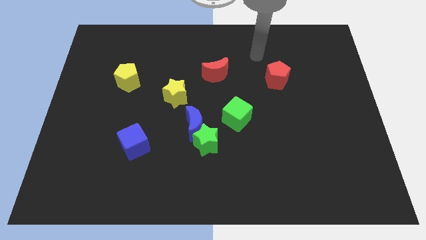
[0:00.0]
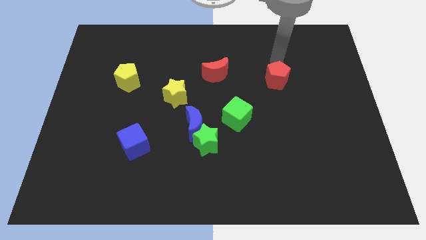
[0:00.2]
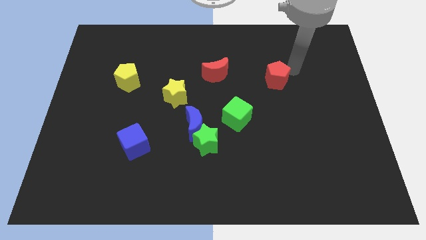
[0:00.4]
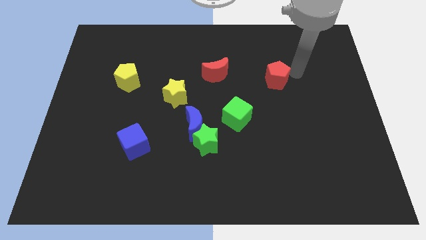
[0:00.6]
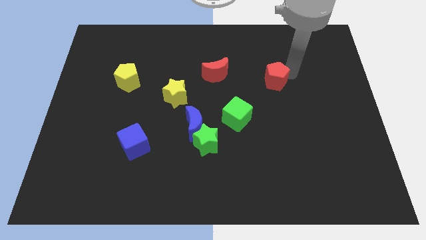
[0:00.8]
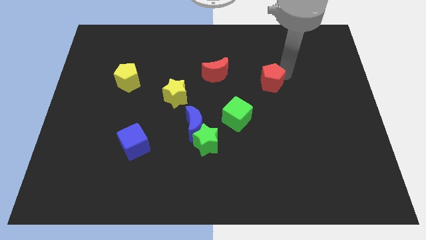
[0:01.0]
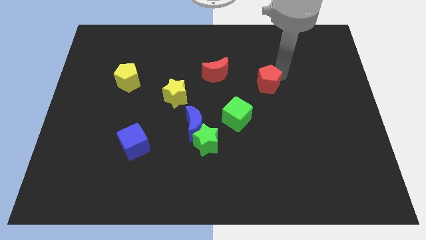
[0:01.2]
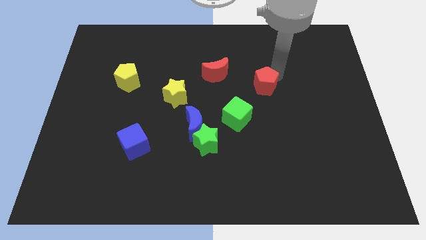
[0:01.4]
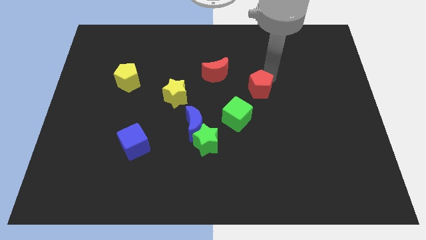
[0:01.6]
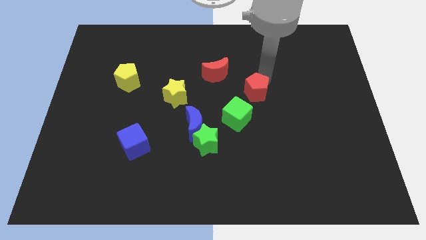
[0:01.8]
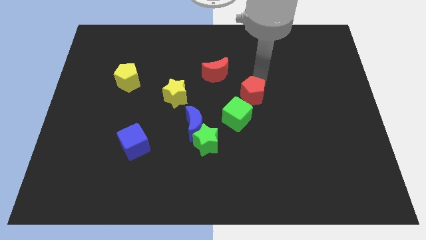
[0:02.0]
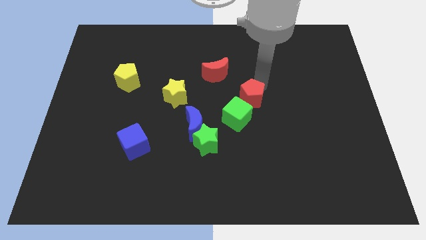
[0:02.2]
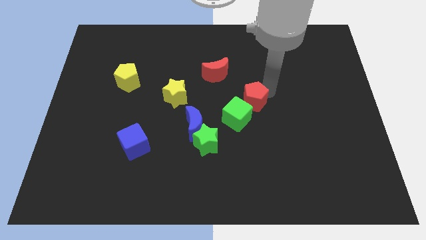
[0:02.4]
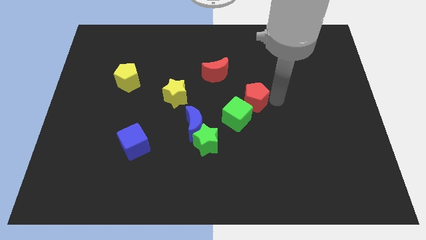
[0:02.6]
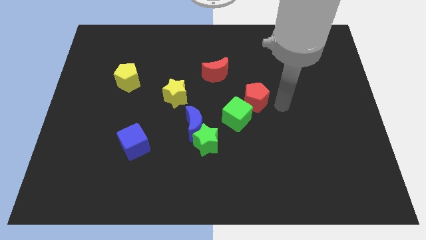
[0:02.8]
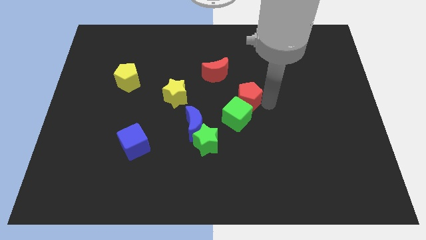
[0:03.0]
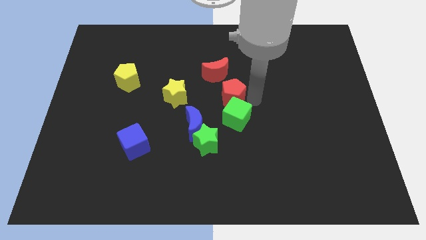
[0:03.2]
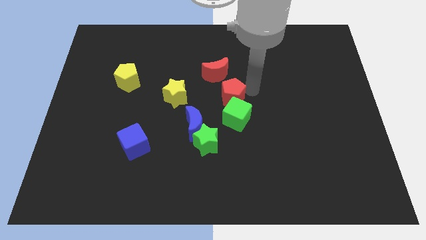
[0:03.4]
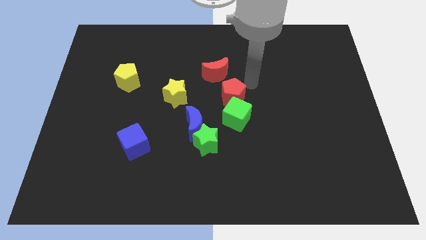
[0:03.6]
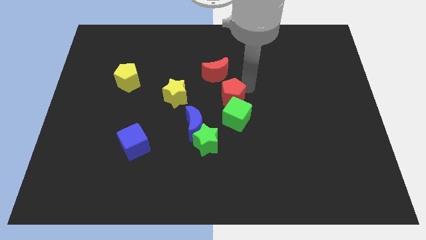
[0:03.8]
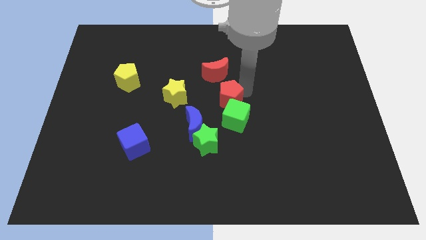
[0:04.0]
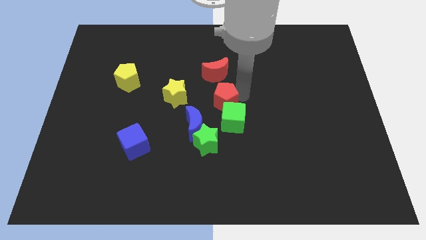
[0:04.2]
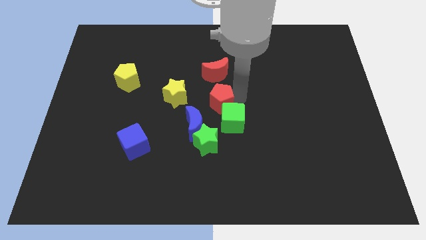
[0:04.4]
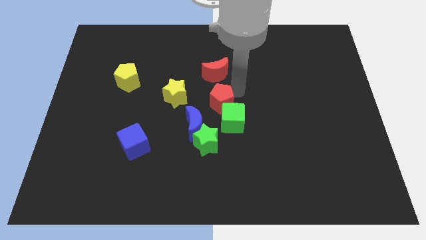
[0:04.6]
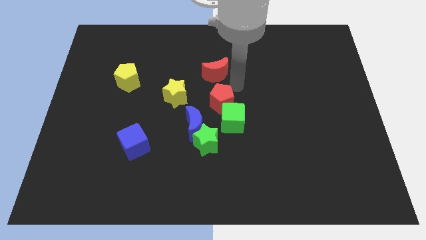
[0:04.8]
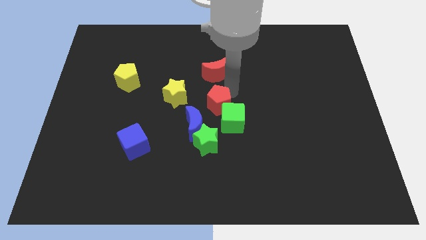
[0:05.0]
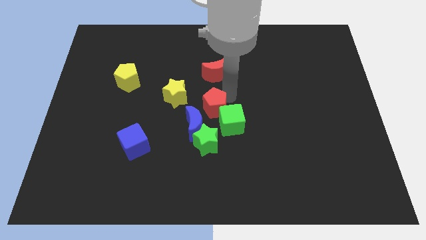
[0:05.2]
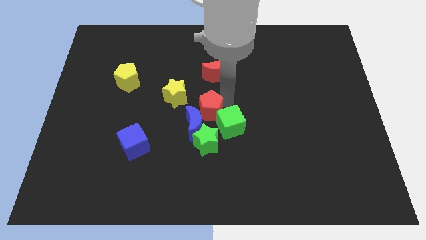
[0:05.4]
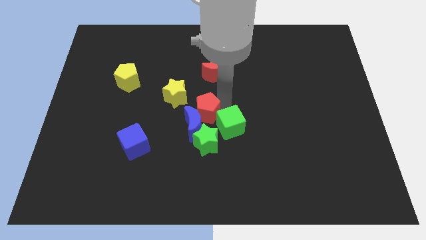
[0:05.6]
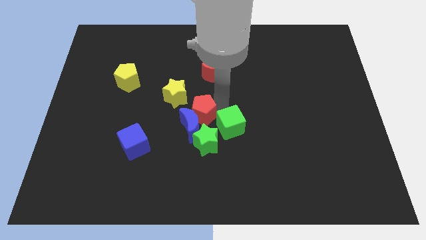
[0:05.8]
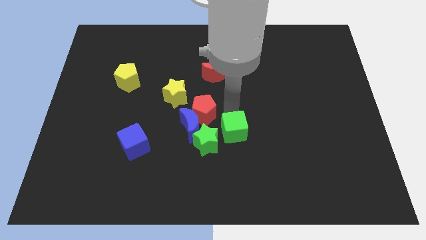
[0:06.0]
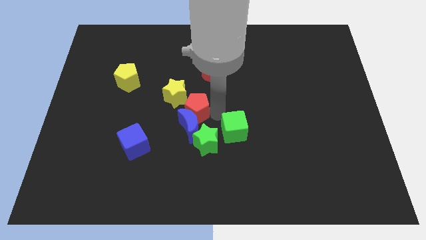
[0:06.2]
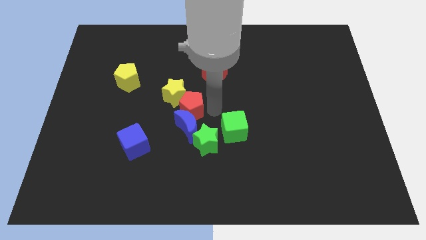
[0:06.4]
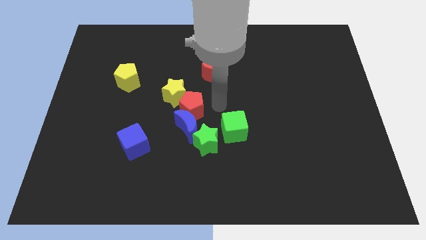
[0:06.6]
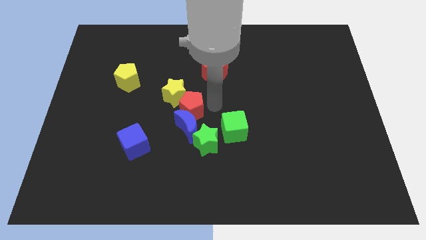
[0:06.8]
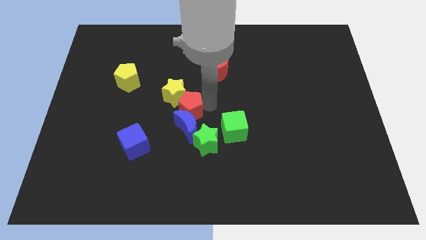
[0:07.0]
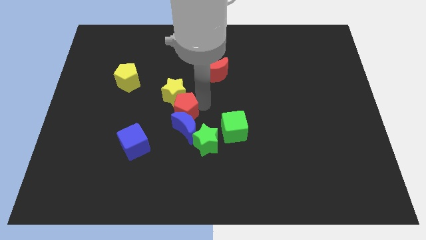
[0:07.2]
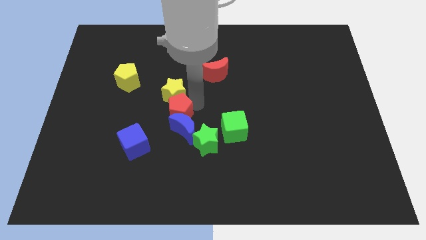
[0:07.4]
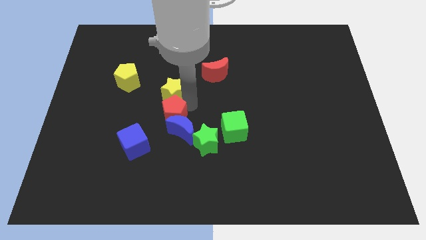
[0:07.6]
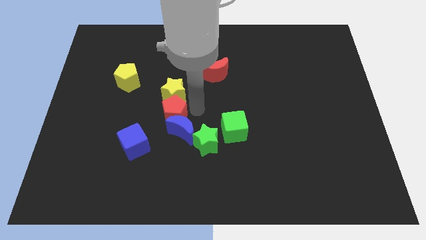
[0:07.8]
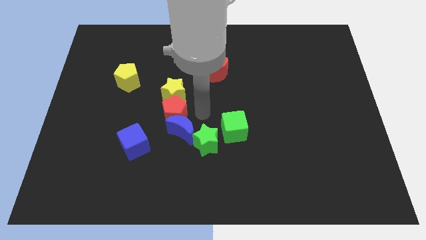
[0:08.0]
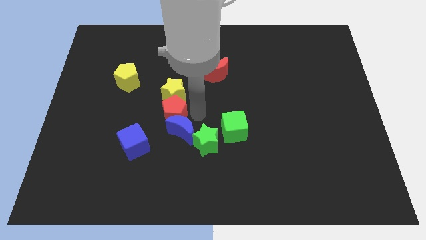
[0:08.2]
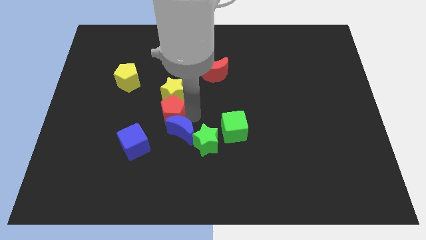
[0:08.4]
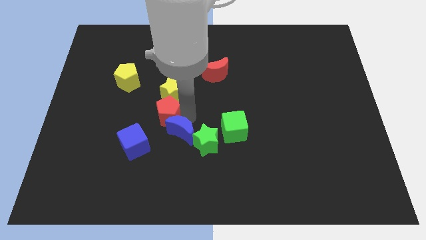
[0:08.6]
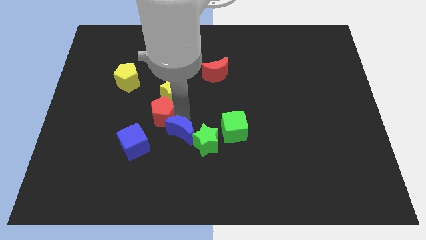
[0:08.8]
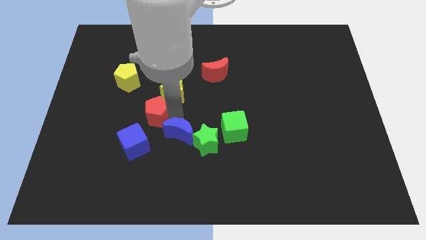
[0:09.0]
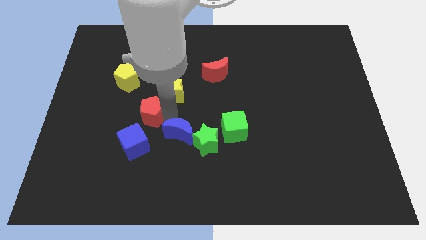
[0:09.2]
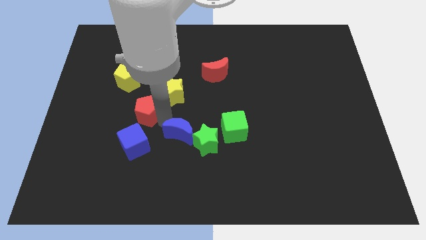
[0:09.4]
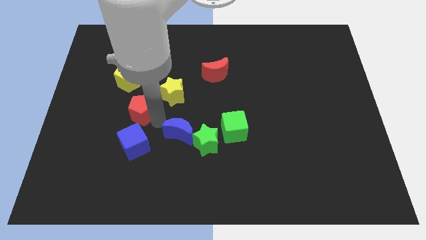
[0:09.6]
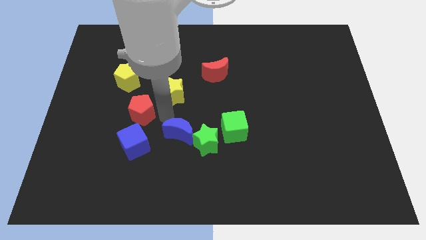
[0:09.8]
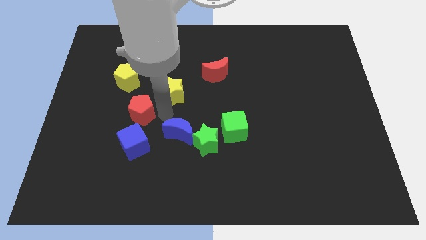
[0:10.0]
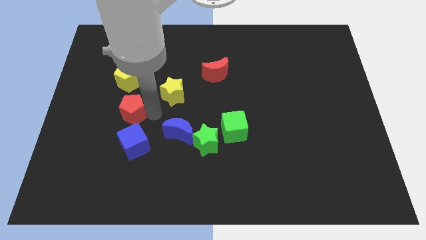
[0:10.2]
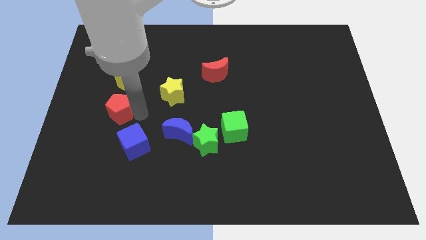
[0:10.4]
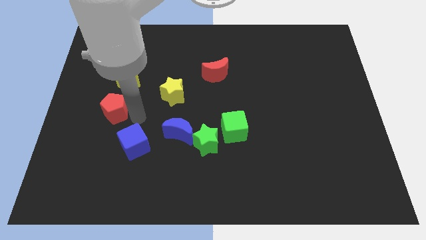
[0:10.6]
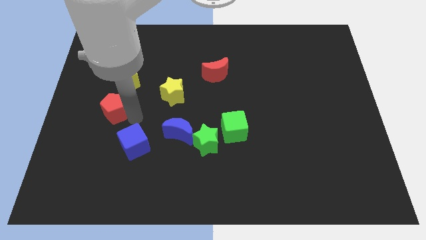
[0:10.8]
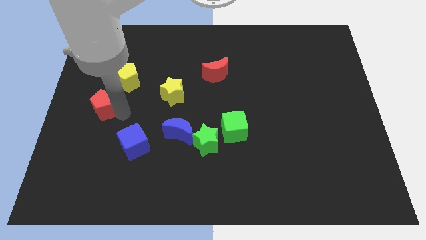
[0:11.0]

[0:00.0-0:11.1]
push the red pentagon to the center left

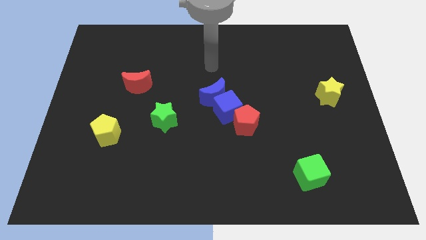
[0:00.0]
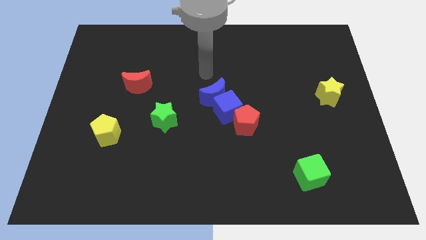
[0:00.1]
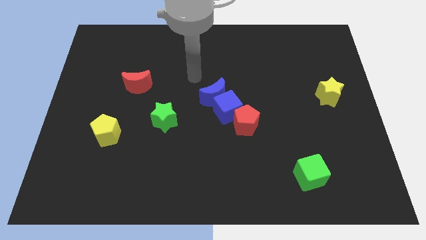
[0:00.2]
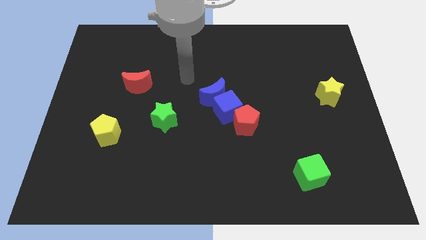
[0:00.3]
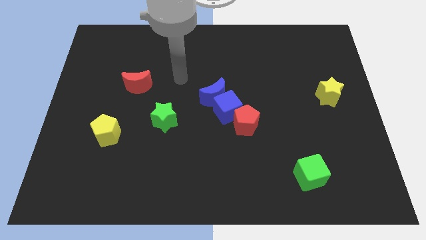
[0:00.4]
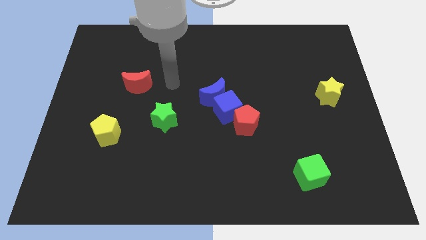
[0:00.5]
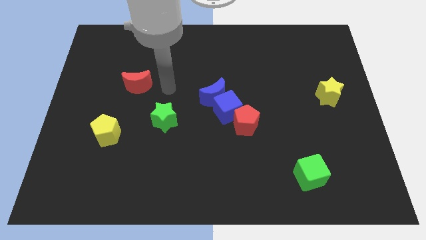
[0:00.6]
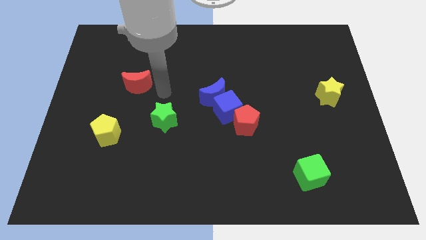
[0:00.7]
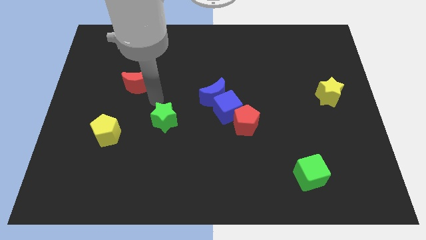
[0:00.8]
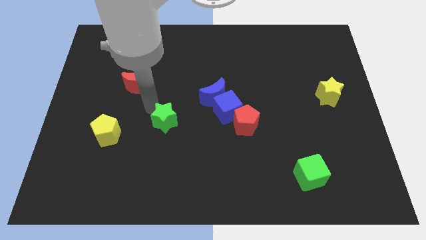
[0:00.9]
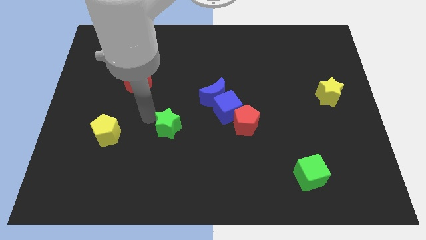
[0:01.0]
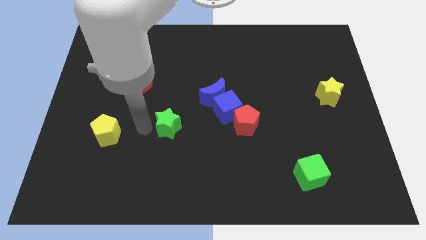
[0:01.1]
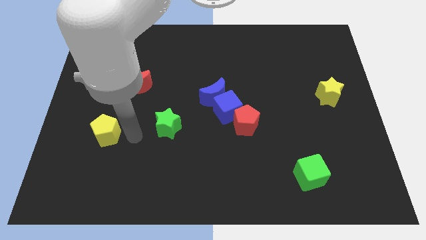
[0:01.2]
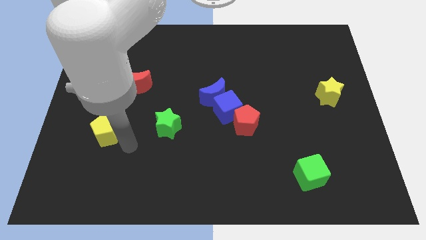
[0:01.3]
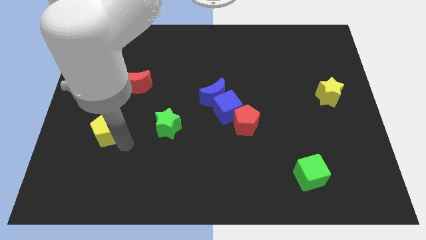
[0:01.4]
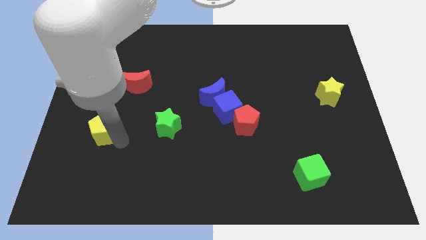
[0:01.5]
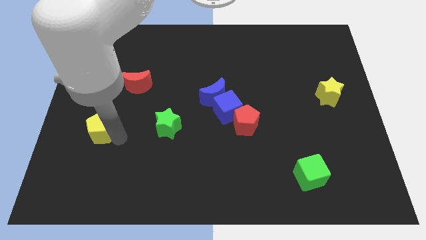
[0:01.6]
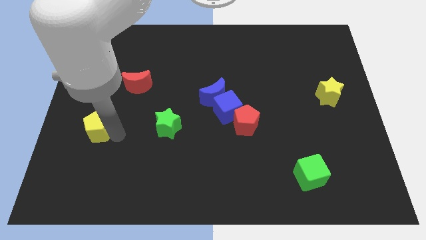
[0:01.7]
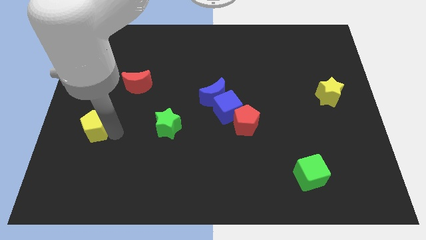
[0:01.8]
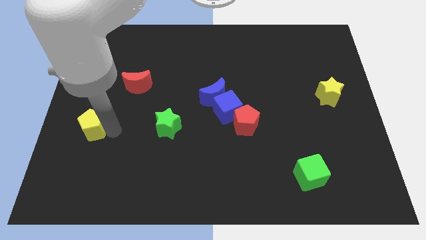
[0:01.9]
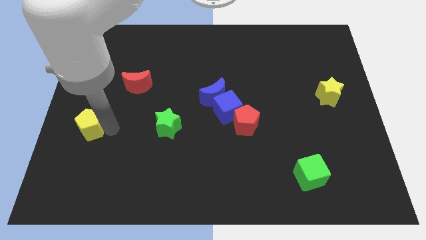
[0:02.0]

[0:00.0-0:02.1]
slide the yellow pentagon to the left side
